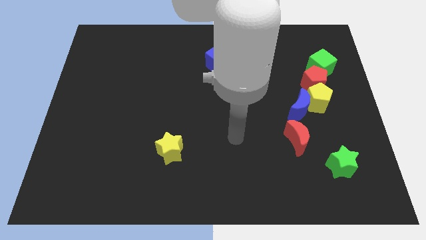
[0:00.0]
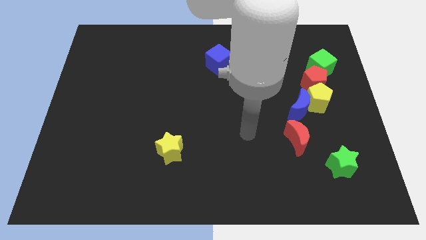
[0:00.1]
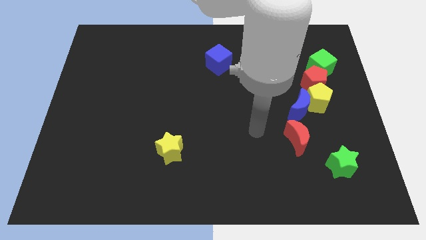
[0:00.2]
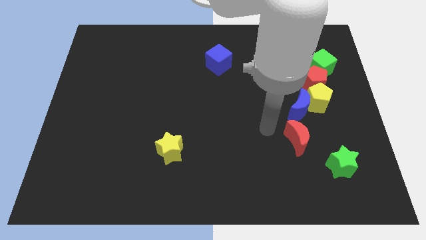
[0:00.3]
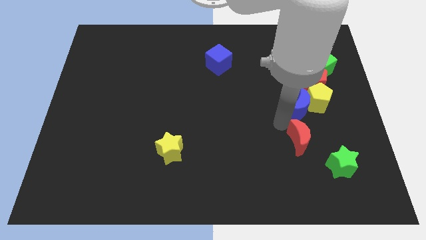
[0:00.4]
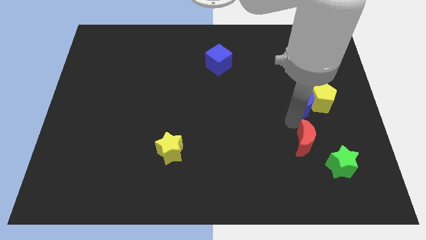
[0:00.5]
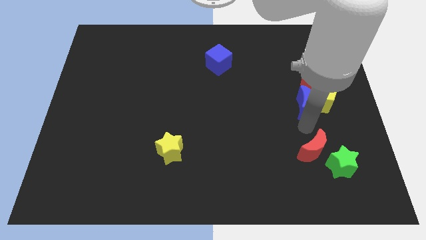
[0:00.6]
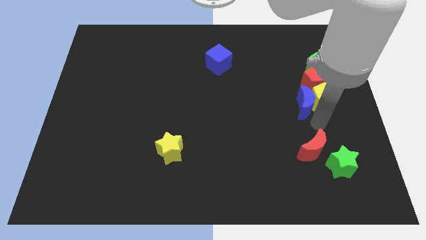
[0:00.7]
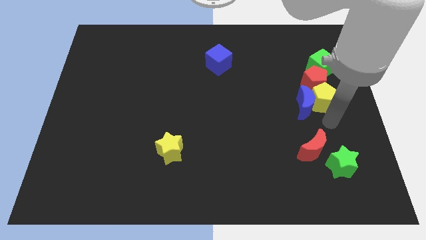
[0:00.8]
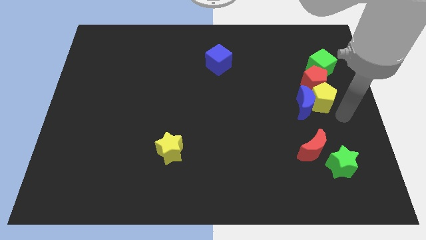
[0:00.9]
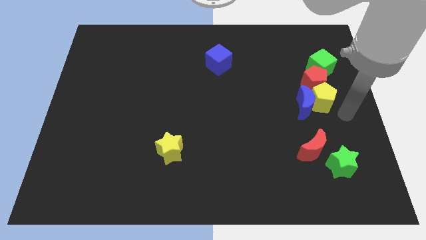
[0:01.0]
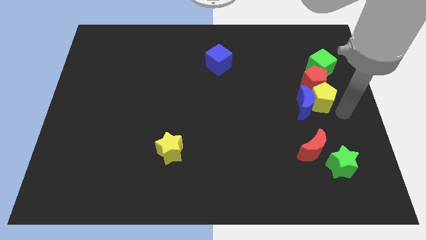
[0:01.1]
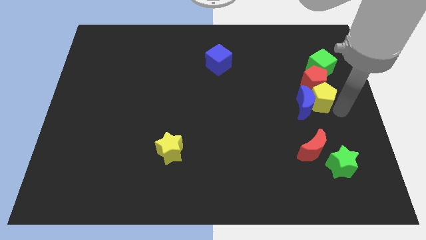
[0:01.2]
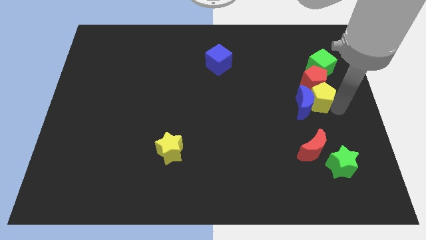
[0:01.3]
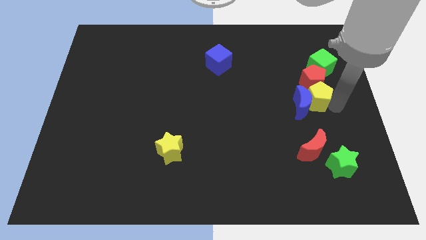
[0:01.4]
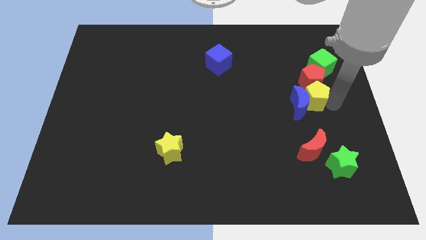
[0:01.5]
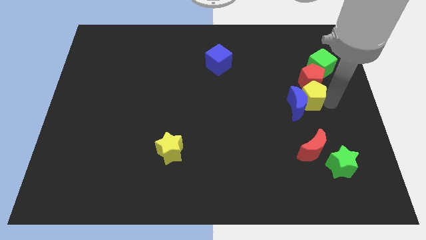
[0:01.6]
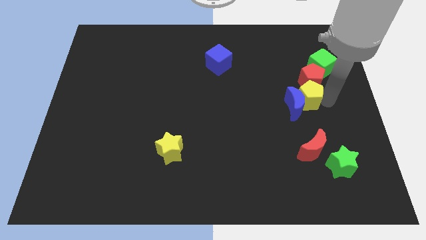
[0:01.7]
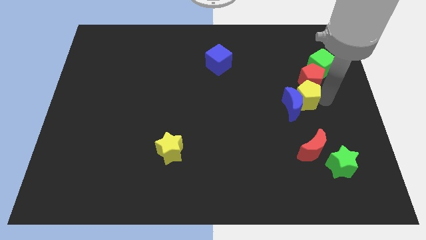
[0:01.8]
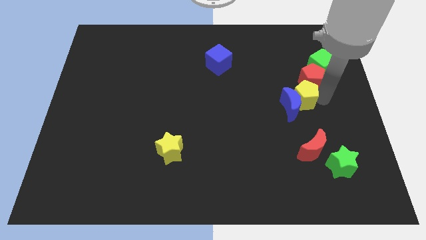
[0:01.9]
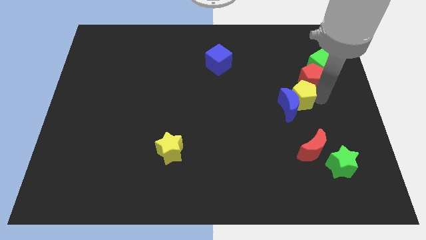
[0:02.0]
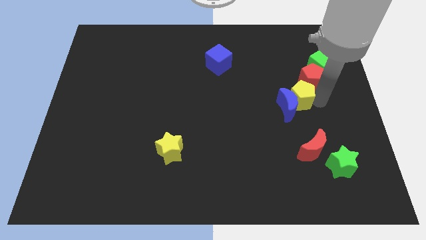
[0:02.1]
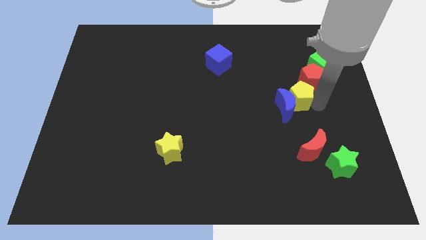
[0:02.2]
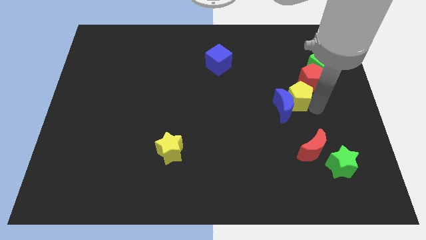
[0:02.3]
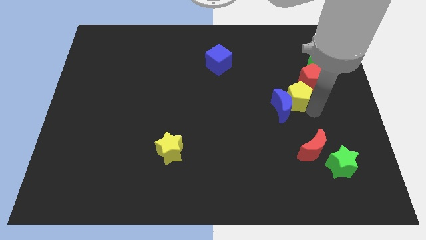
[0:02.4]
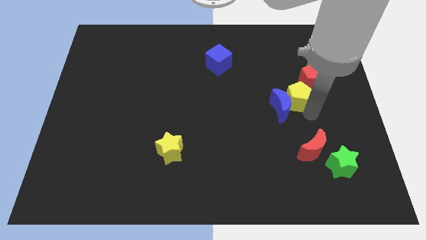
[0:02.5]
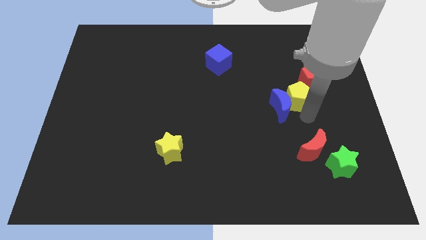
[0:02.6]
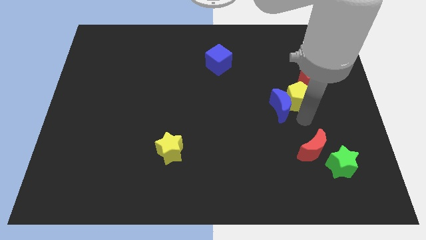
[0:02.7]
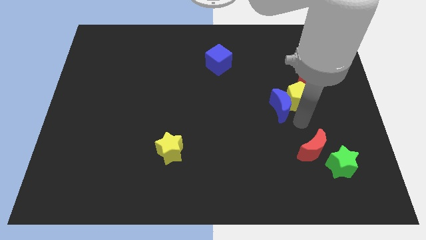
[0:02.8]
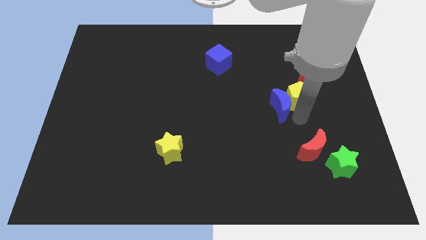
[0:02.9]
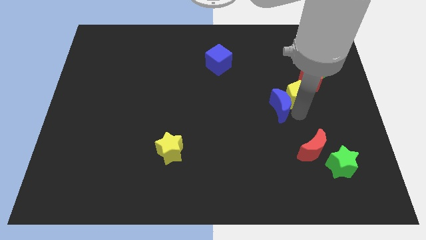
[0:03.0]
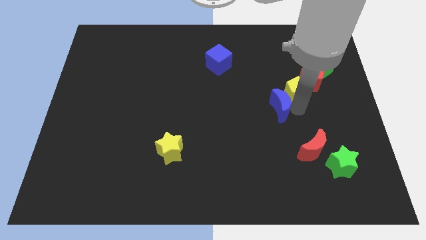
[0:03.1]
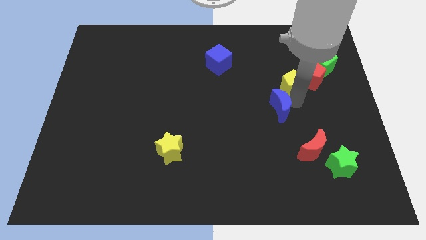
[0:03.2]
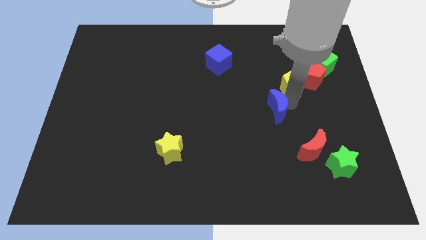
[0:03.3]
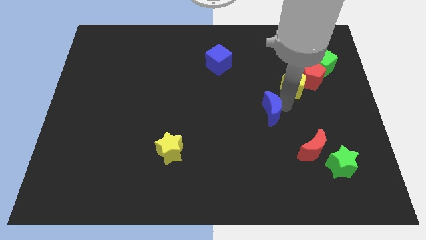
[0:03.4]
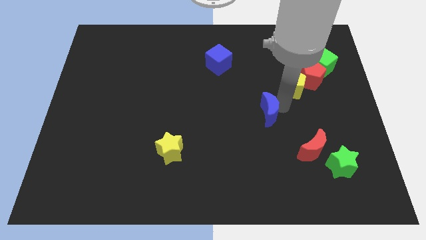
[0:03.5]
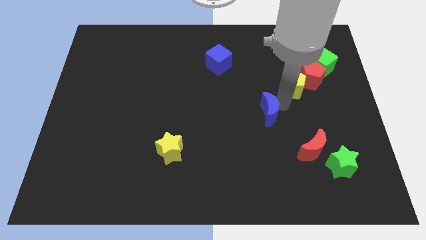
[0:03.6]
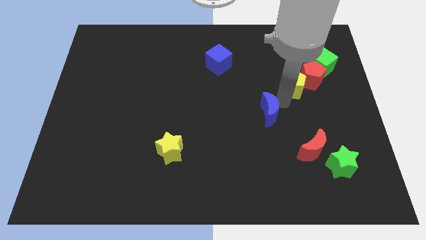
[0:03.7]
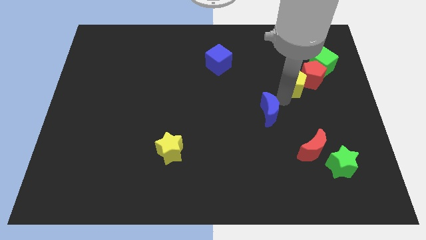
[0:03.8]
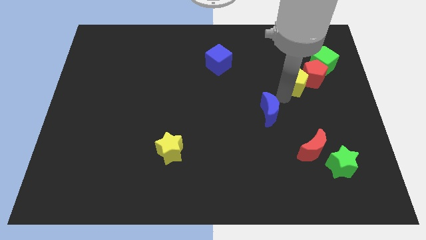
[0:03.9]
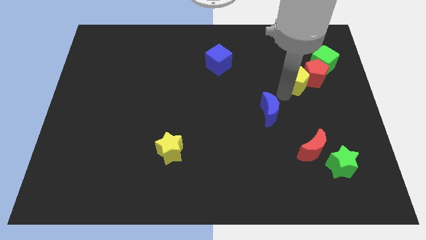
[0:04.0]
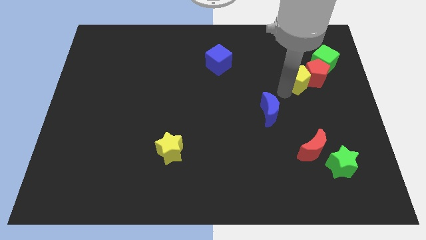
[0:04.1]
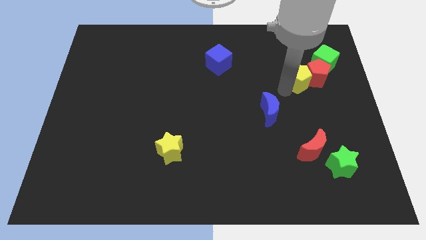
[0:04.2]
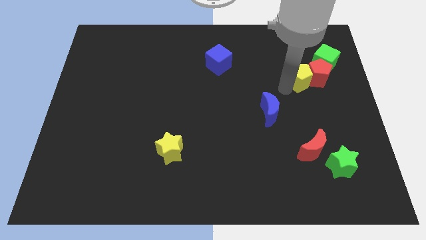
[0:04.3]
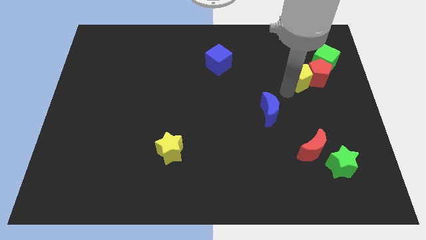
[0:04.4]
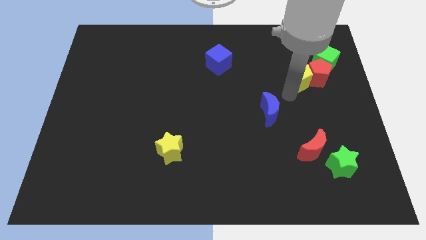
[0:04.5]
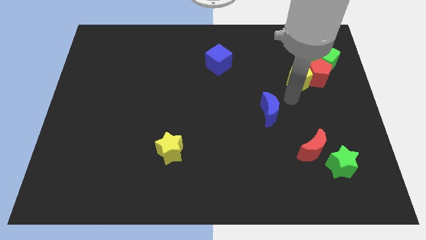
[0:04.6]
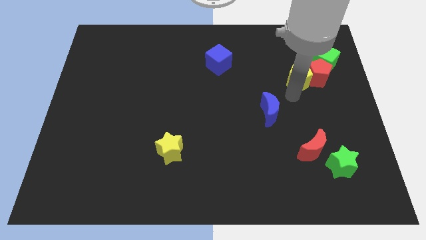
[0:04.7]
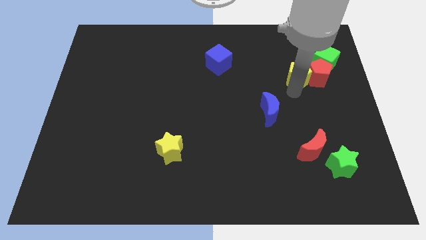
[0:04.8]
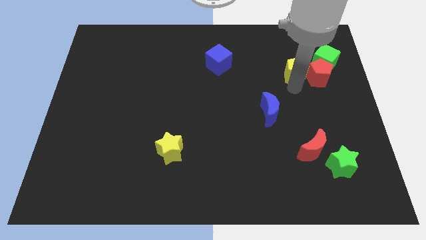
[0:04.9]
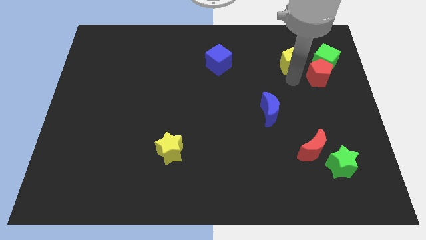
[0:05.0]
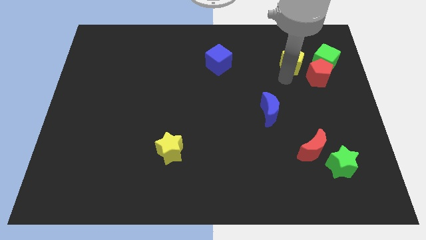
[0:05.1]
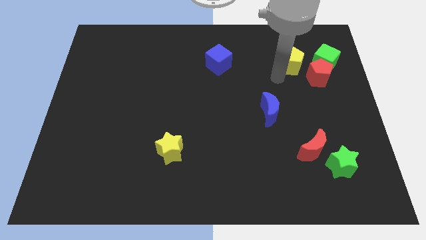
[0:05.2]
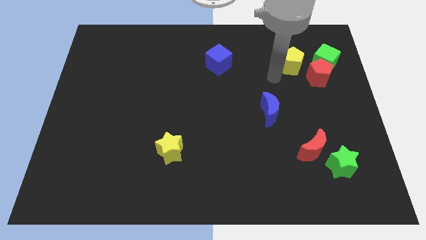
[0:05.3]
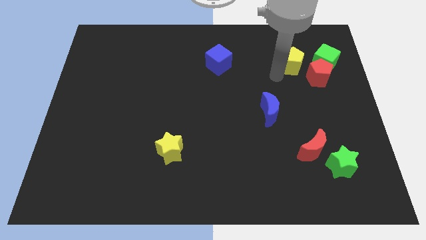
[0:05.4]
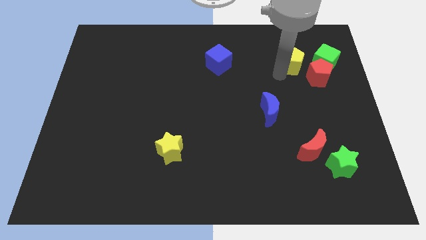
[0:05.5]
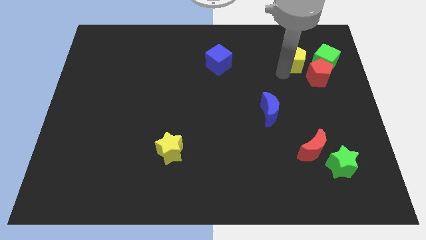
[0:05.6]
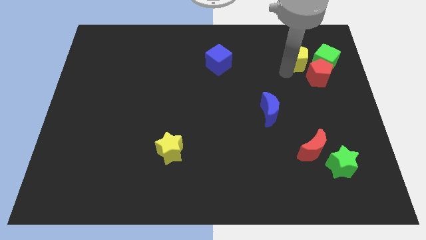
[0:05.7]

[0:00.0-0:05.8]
slide the yellow pentagon above the red pentagon

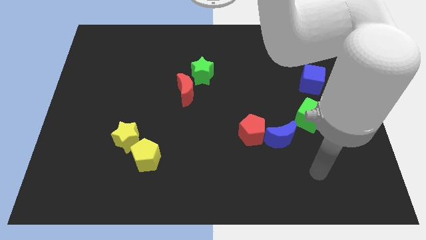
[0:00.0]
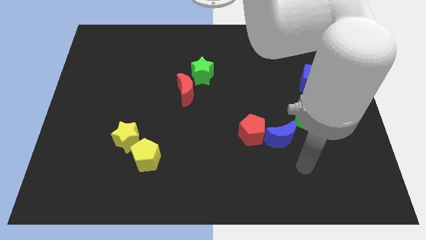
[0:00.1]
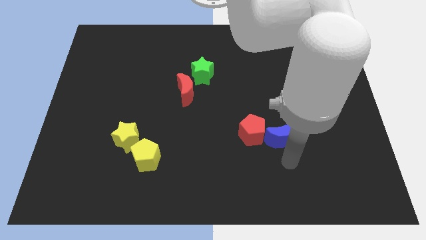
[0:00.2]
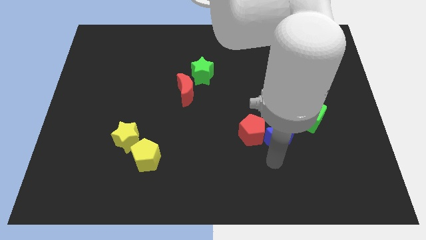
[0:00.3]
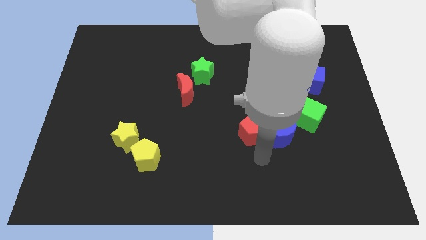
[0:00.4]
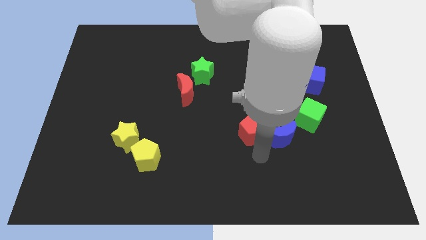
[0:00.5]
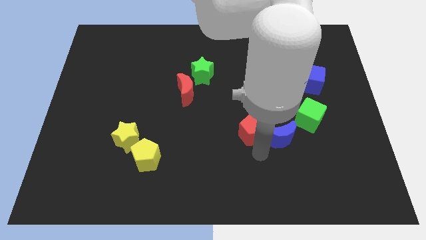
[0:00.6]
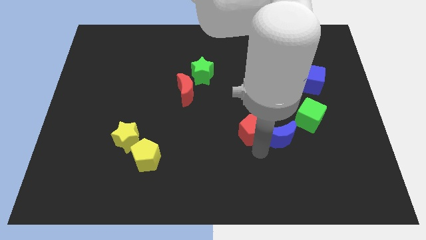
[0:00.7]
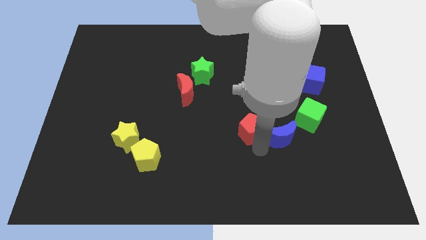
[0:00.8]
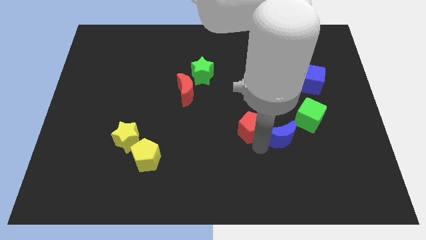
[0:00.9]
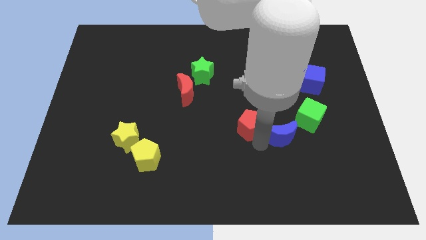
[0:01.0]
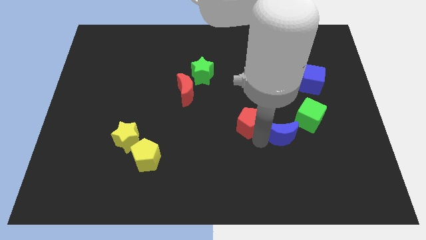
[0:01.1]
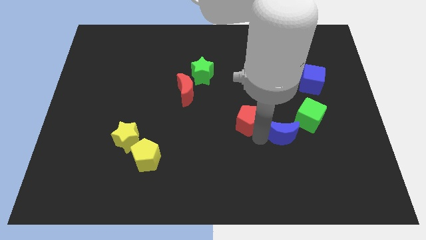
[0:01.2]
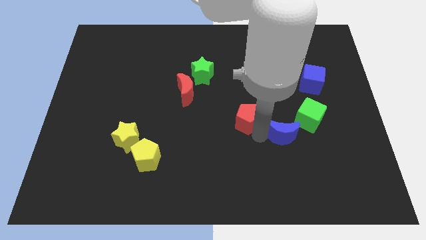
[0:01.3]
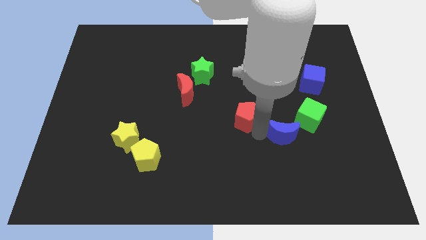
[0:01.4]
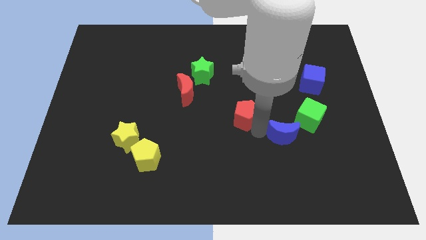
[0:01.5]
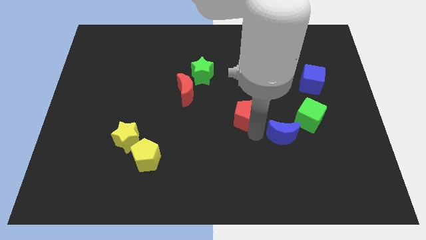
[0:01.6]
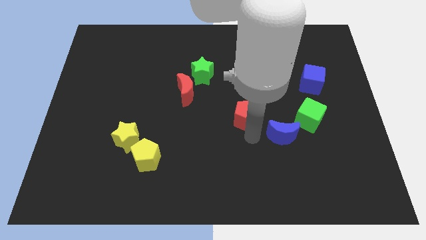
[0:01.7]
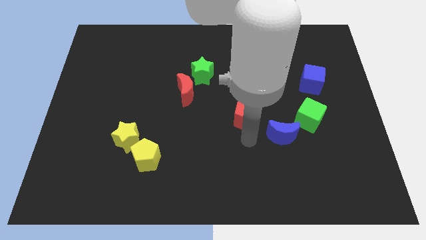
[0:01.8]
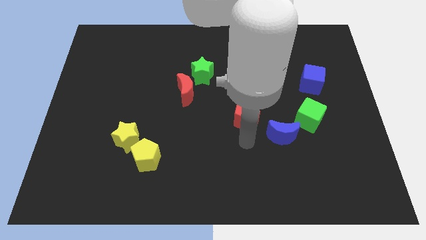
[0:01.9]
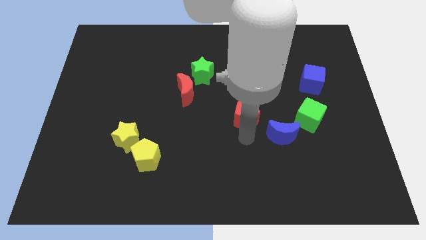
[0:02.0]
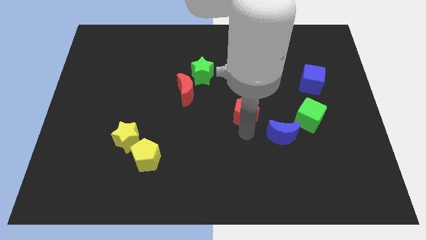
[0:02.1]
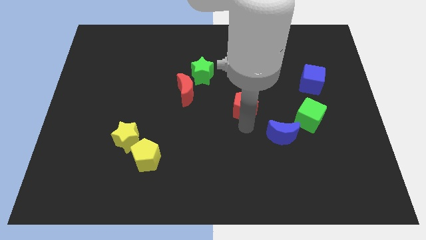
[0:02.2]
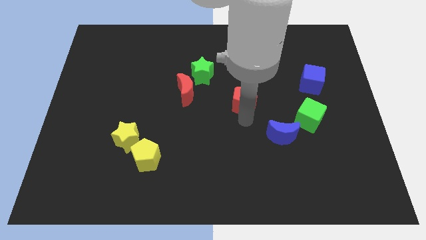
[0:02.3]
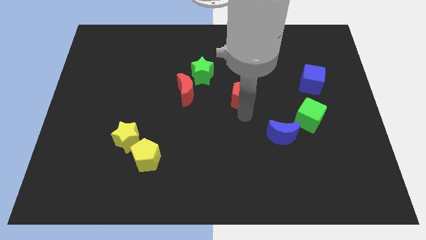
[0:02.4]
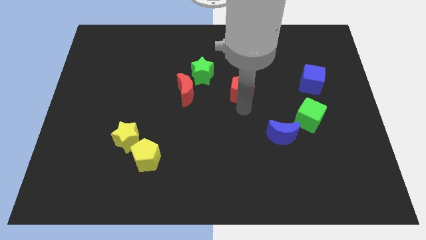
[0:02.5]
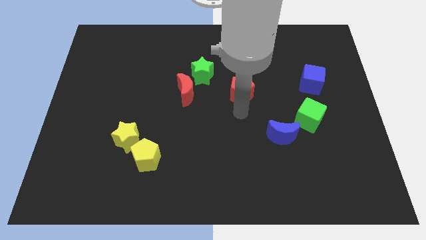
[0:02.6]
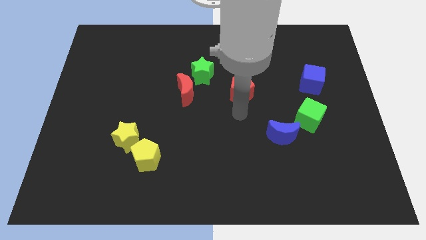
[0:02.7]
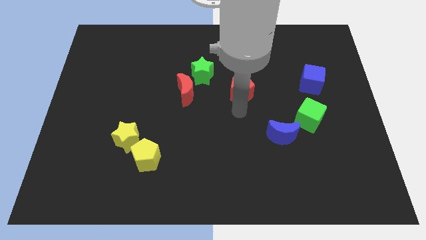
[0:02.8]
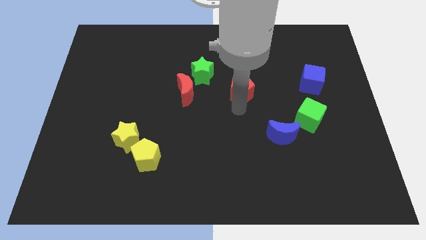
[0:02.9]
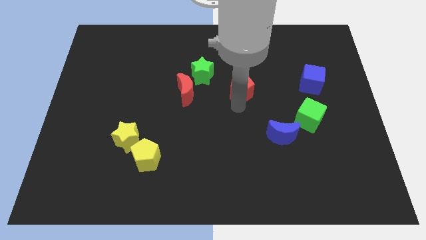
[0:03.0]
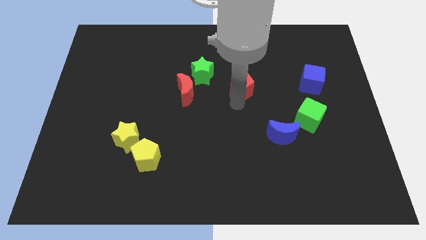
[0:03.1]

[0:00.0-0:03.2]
slide the red pentagon just right of the green star
